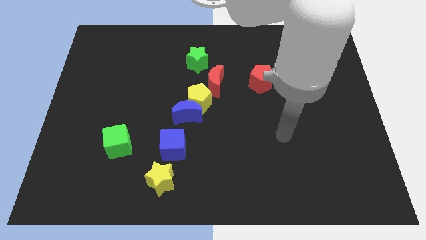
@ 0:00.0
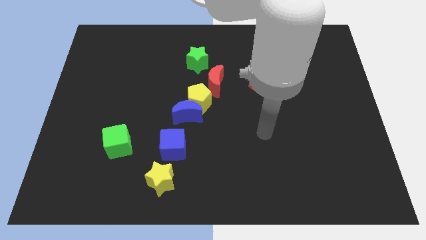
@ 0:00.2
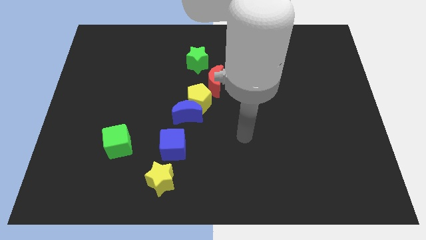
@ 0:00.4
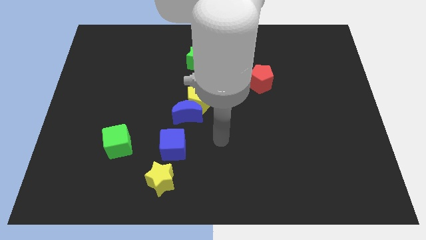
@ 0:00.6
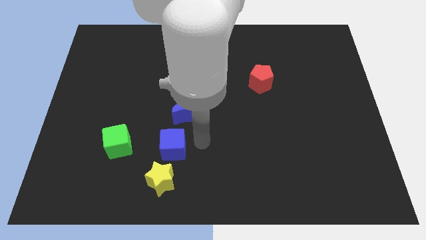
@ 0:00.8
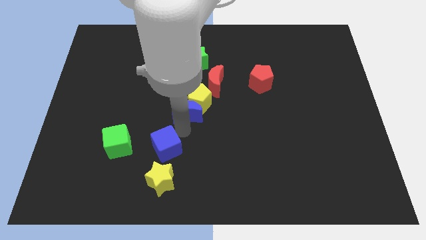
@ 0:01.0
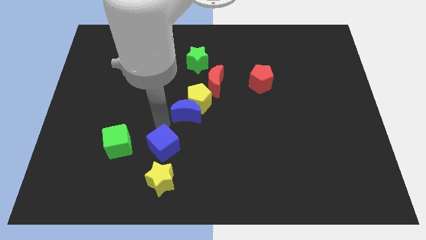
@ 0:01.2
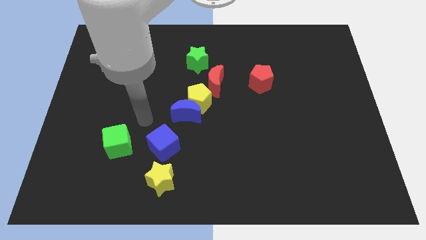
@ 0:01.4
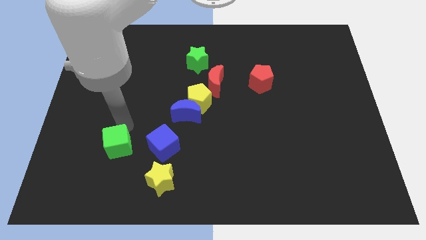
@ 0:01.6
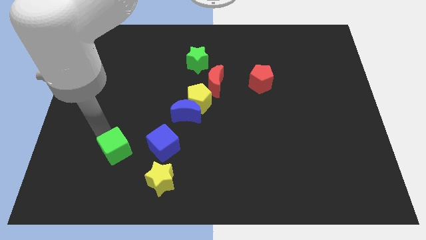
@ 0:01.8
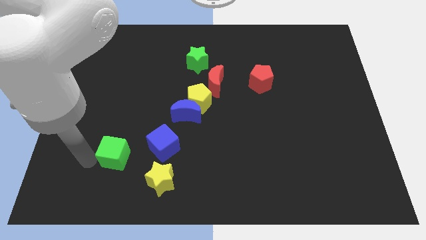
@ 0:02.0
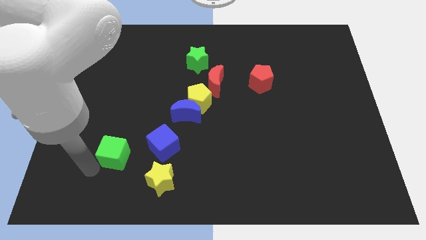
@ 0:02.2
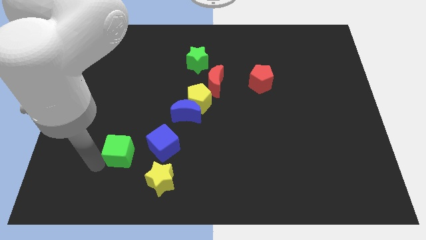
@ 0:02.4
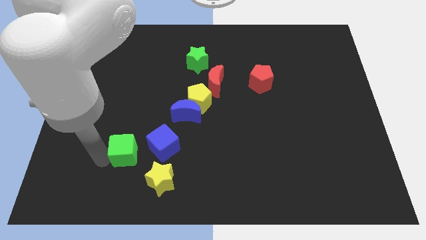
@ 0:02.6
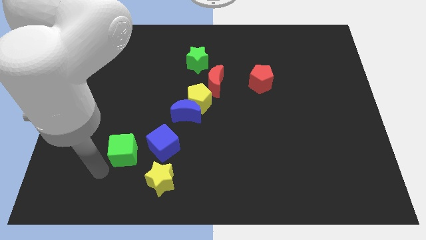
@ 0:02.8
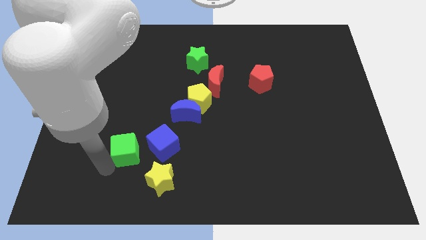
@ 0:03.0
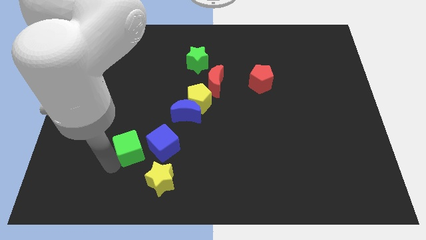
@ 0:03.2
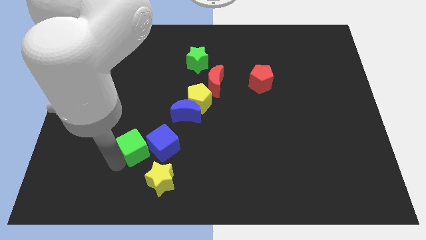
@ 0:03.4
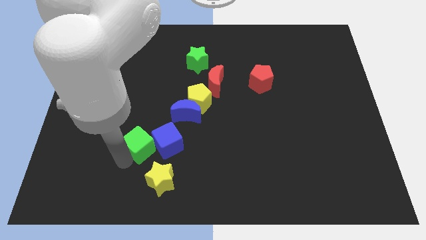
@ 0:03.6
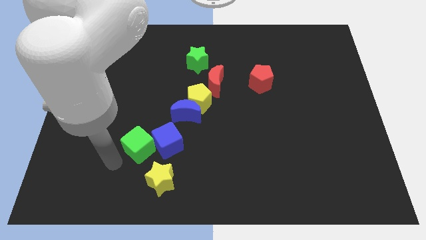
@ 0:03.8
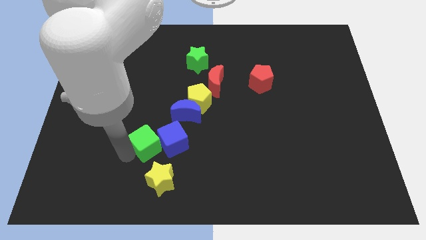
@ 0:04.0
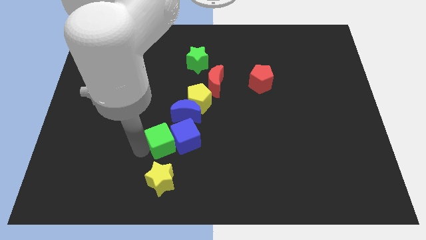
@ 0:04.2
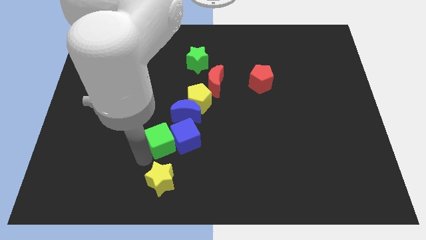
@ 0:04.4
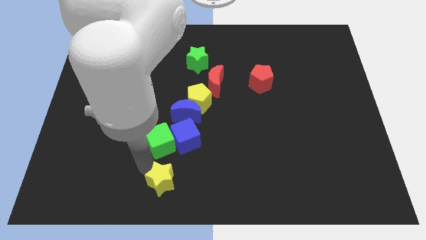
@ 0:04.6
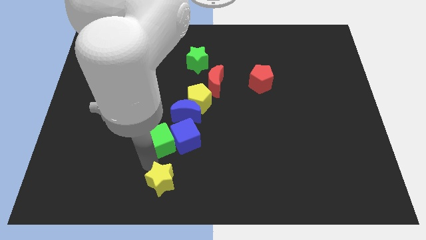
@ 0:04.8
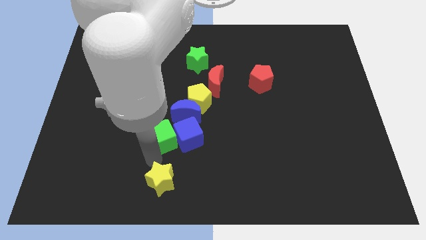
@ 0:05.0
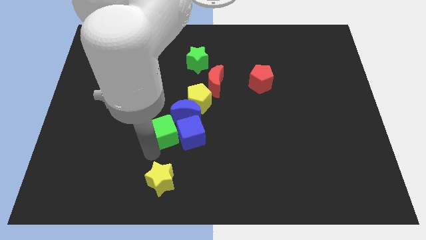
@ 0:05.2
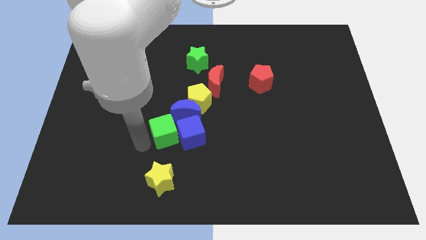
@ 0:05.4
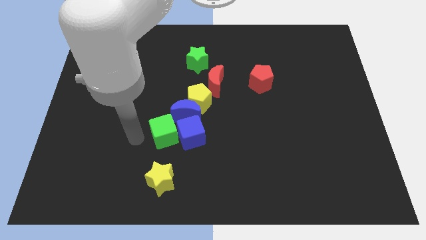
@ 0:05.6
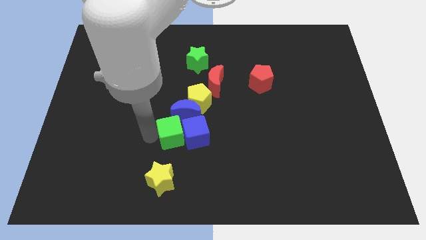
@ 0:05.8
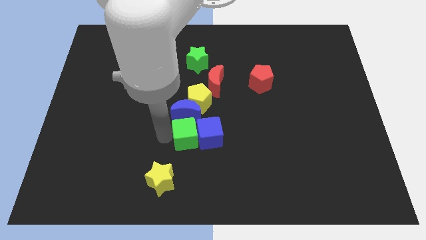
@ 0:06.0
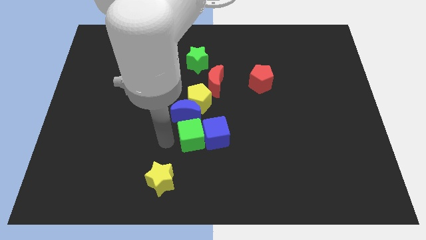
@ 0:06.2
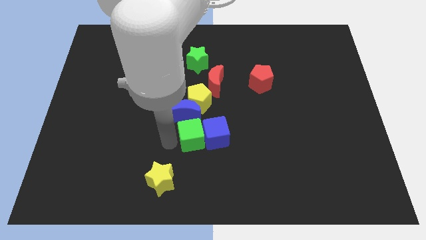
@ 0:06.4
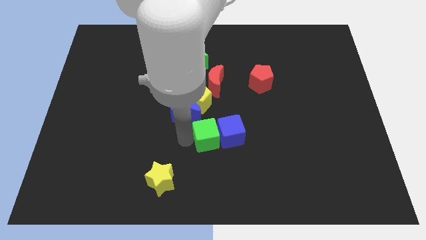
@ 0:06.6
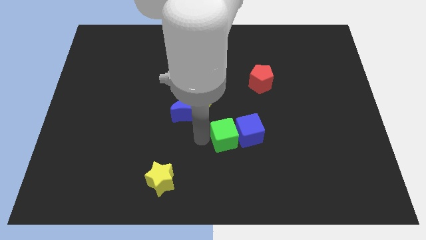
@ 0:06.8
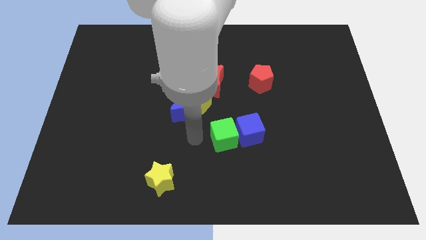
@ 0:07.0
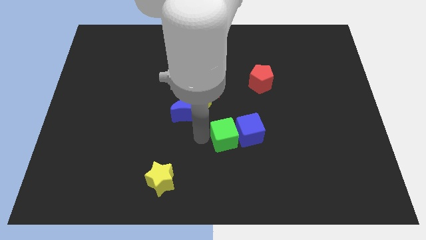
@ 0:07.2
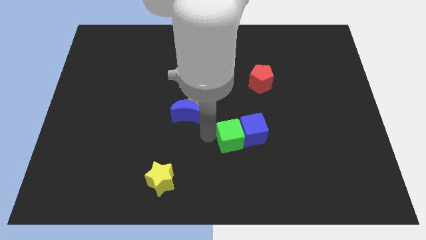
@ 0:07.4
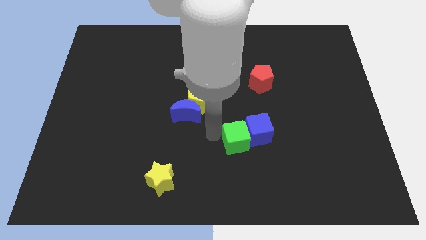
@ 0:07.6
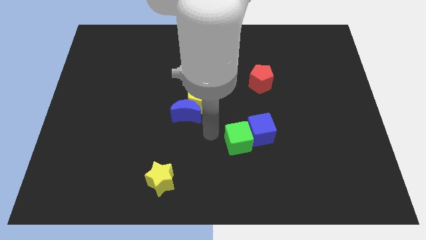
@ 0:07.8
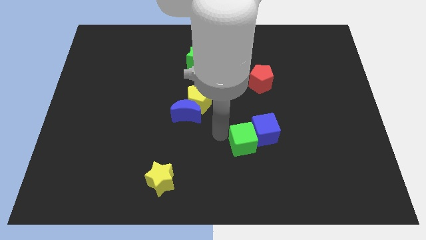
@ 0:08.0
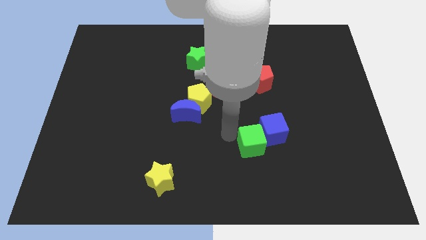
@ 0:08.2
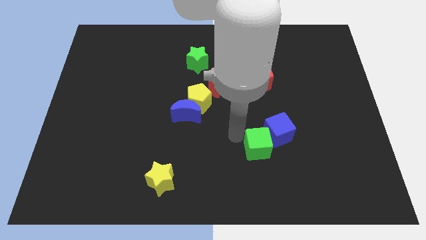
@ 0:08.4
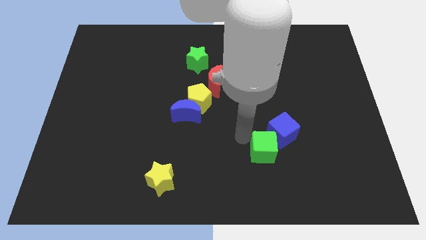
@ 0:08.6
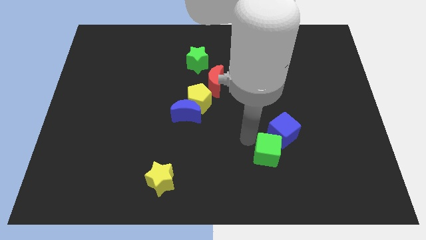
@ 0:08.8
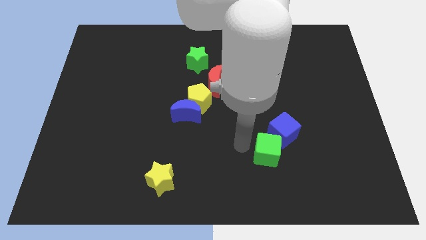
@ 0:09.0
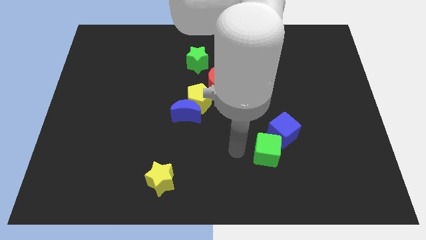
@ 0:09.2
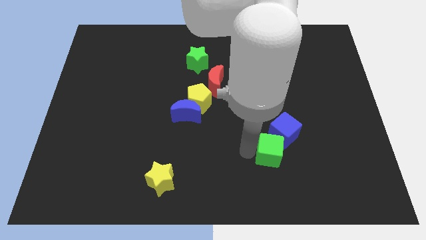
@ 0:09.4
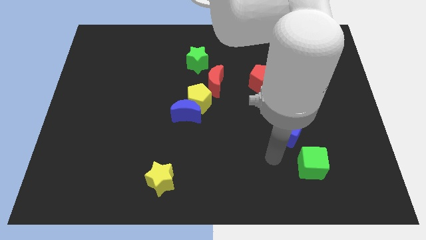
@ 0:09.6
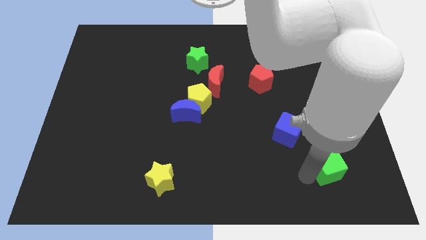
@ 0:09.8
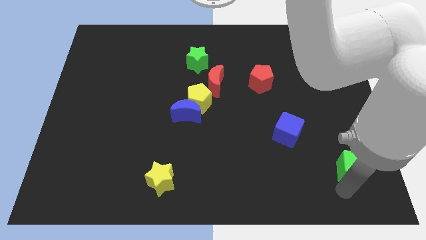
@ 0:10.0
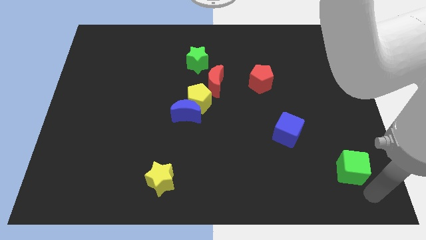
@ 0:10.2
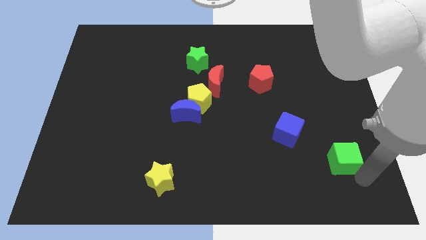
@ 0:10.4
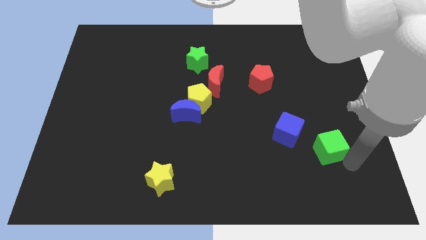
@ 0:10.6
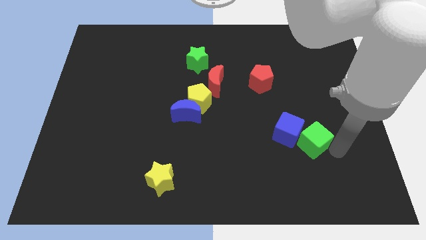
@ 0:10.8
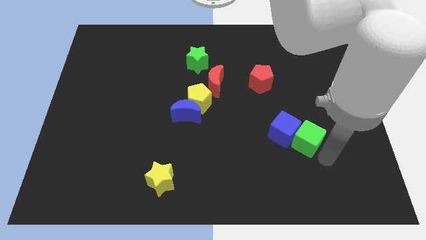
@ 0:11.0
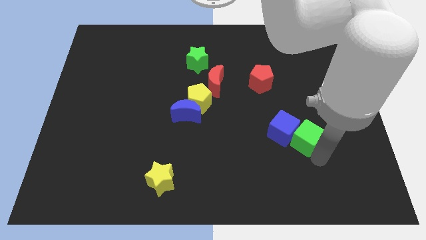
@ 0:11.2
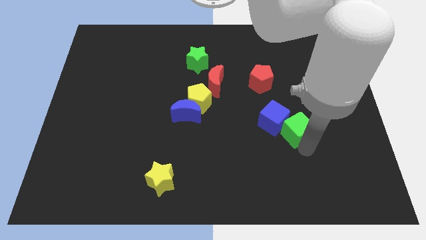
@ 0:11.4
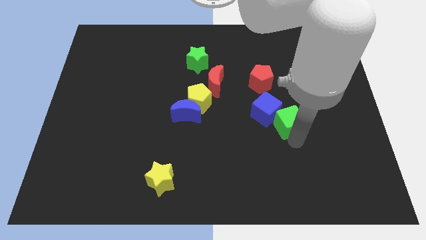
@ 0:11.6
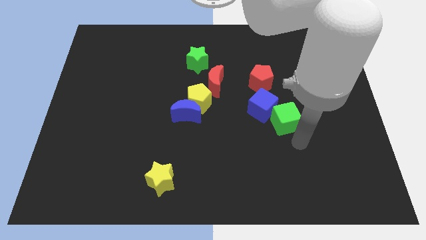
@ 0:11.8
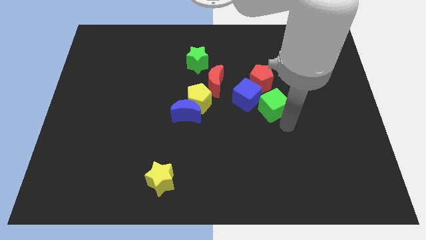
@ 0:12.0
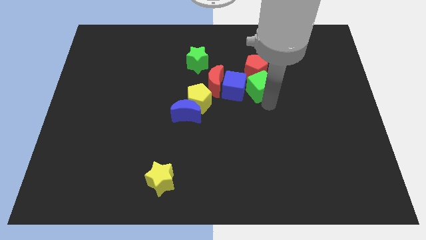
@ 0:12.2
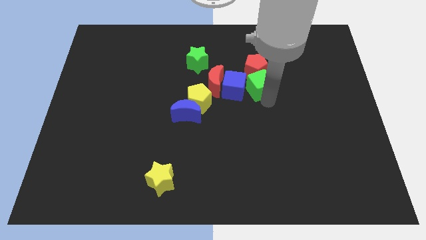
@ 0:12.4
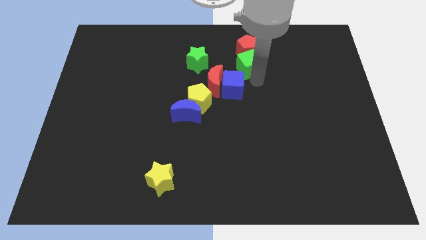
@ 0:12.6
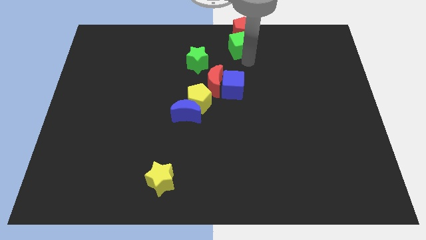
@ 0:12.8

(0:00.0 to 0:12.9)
put the green cube to the towards your base

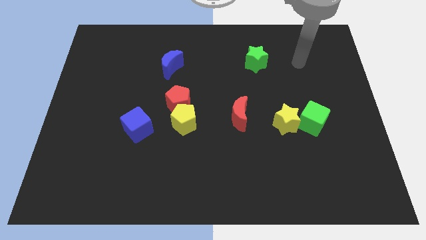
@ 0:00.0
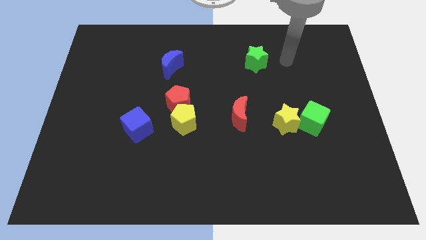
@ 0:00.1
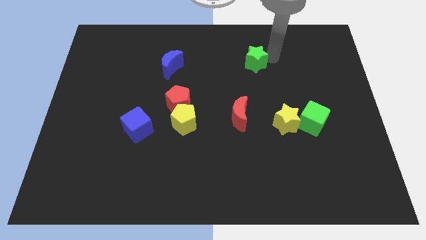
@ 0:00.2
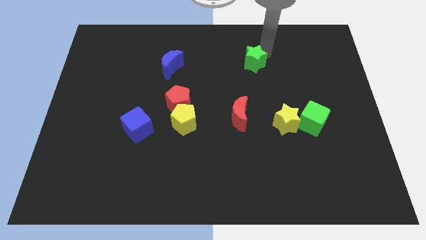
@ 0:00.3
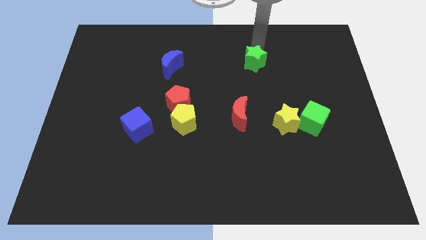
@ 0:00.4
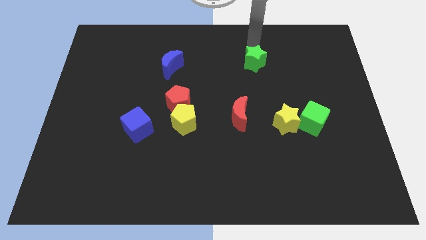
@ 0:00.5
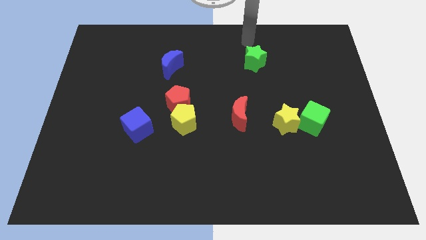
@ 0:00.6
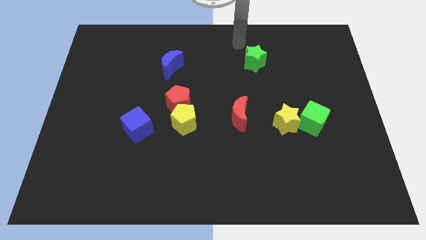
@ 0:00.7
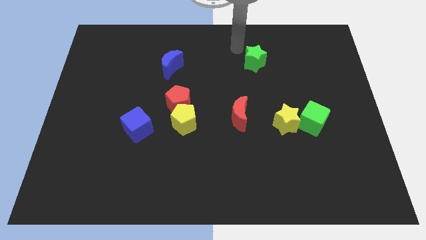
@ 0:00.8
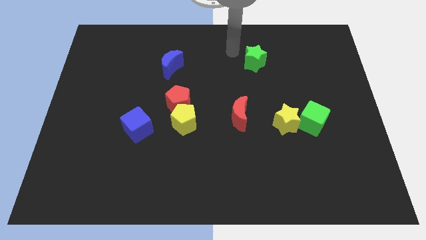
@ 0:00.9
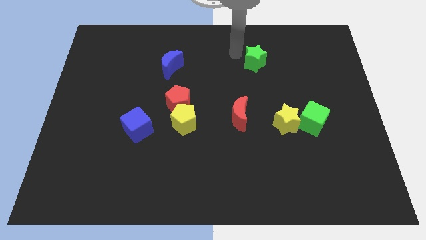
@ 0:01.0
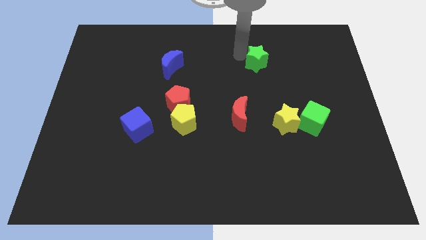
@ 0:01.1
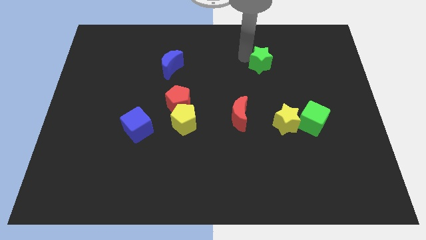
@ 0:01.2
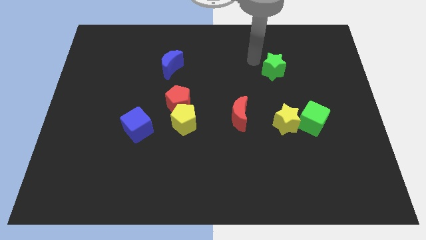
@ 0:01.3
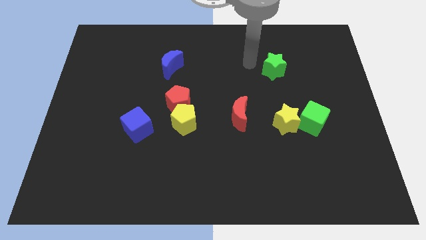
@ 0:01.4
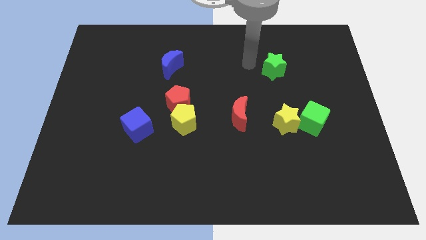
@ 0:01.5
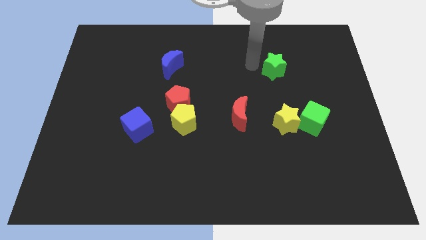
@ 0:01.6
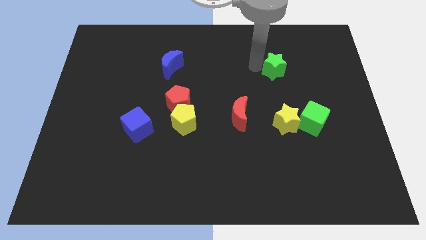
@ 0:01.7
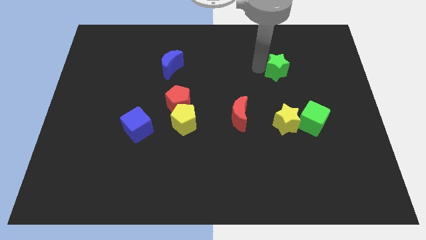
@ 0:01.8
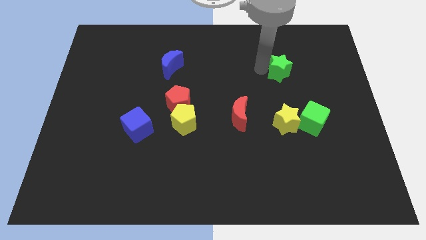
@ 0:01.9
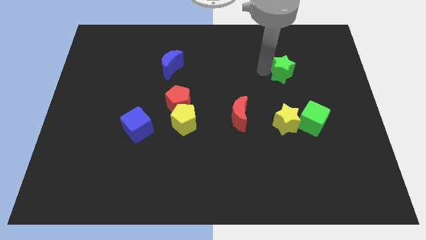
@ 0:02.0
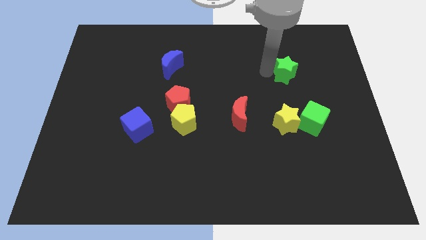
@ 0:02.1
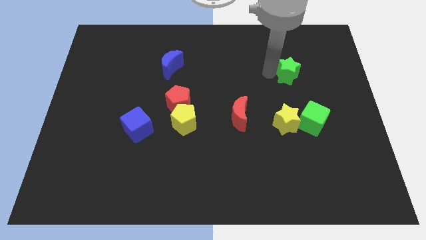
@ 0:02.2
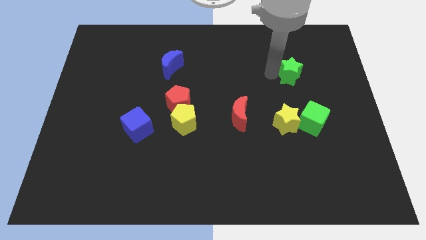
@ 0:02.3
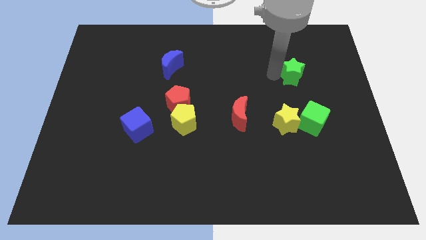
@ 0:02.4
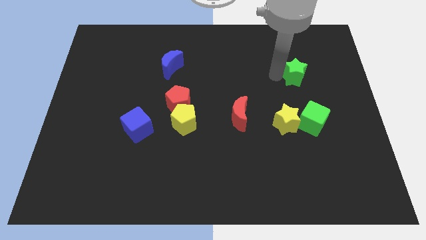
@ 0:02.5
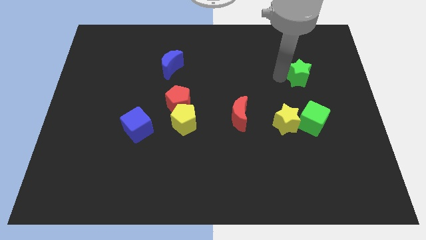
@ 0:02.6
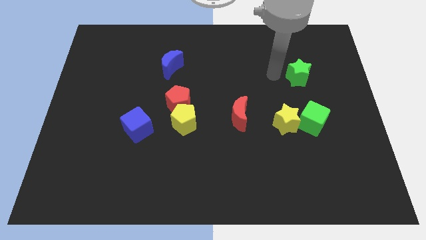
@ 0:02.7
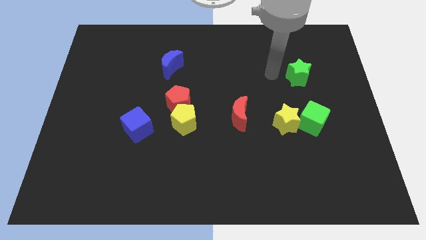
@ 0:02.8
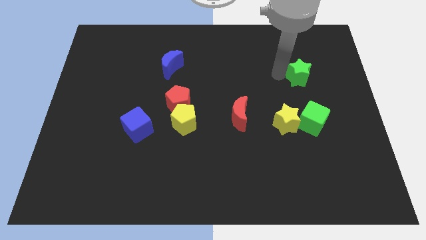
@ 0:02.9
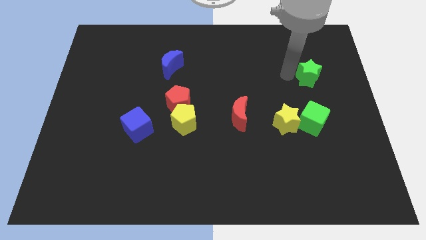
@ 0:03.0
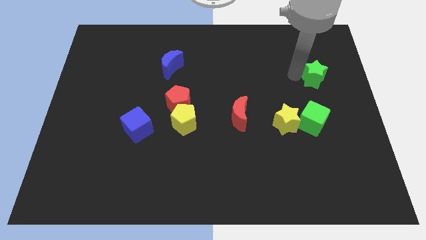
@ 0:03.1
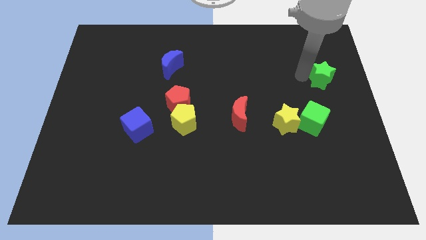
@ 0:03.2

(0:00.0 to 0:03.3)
move the green star to the right side
